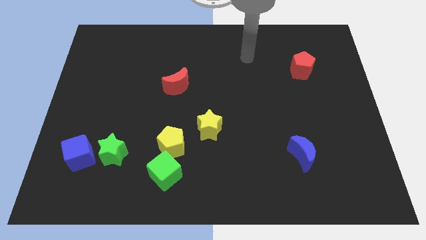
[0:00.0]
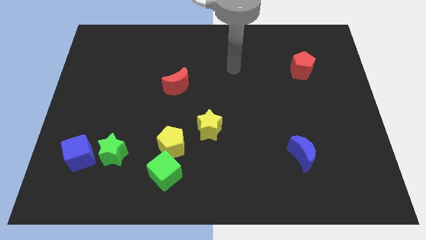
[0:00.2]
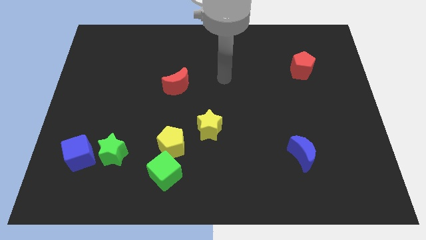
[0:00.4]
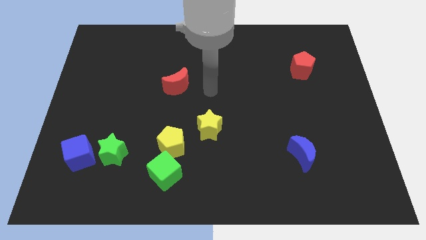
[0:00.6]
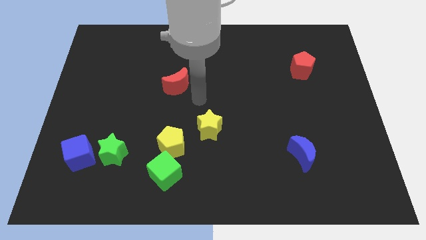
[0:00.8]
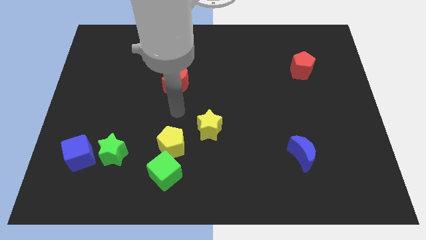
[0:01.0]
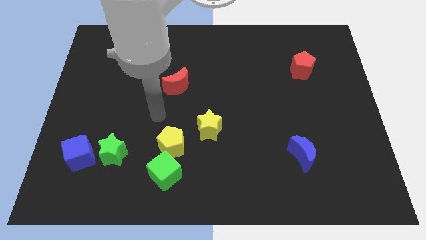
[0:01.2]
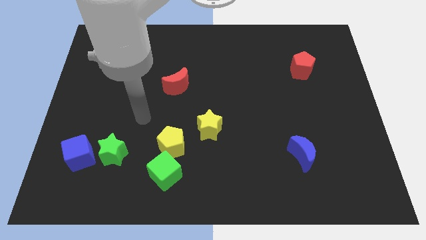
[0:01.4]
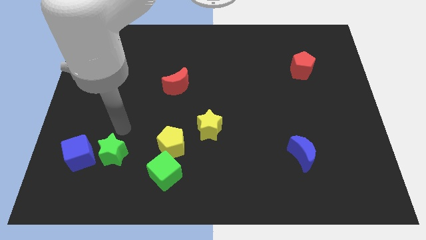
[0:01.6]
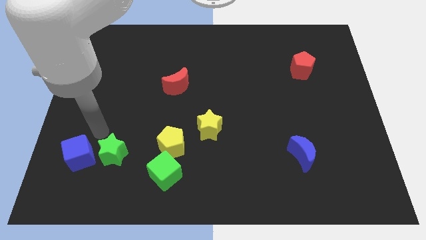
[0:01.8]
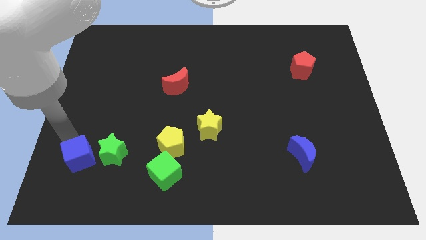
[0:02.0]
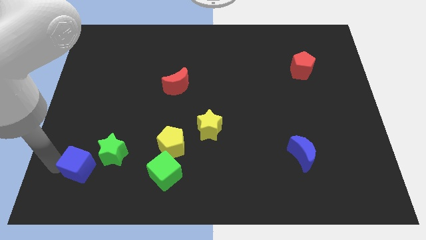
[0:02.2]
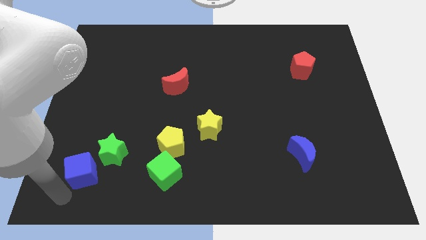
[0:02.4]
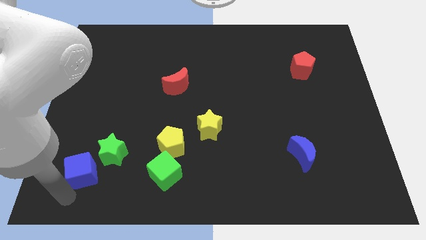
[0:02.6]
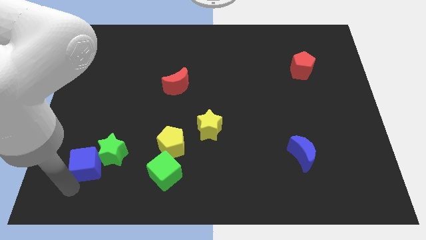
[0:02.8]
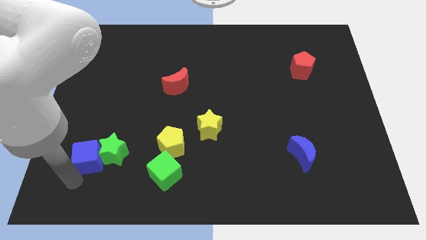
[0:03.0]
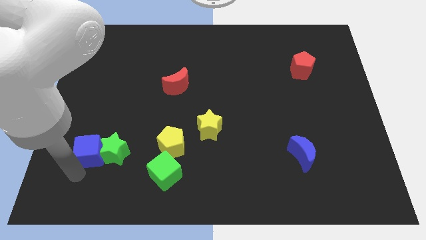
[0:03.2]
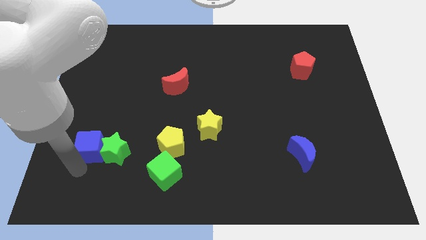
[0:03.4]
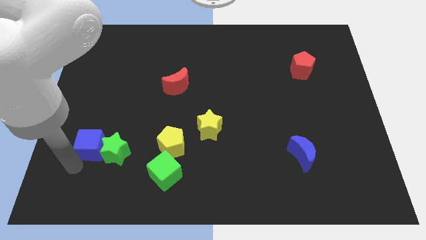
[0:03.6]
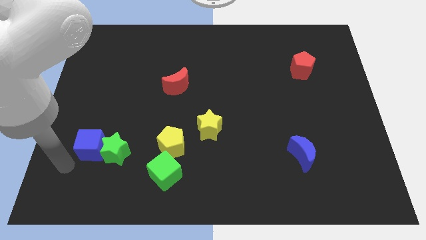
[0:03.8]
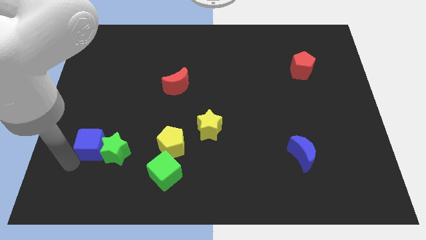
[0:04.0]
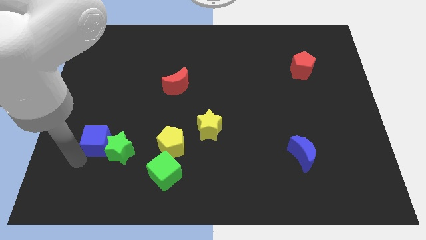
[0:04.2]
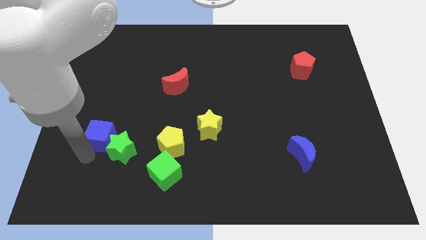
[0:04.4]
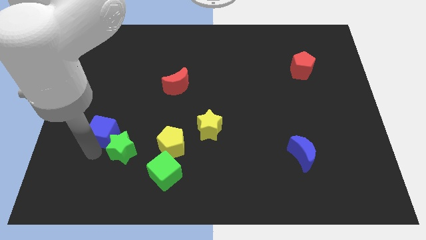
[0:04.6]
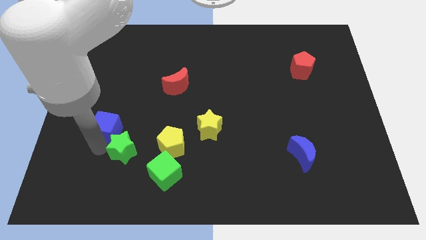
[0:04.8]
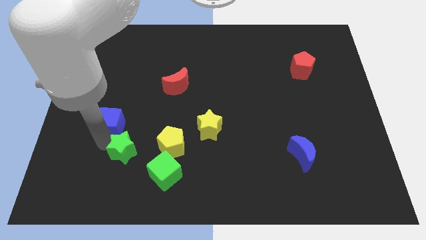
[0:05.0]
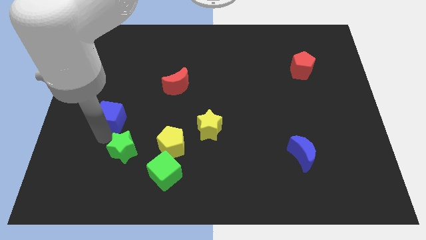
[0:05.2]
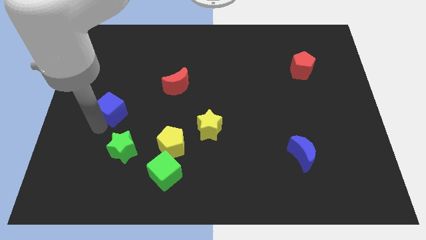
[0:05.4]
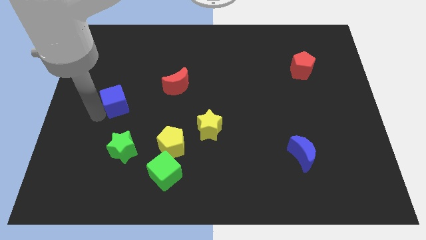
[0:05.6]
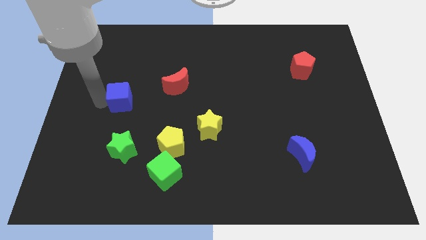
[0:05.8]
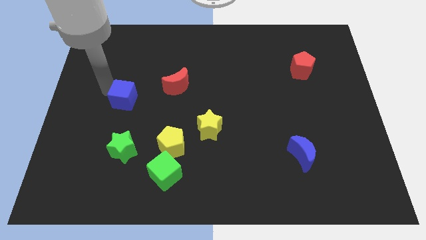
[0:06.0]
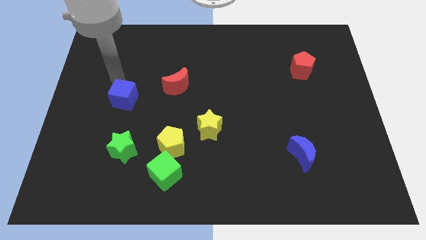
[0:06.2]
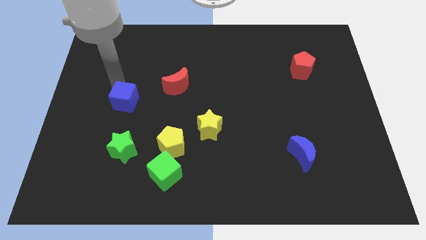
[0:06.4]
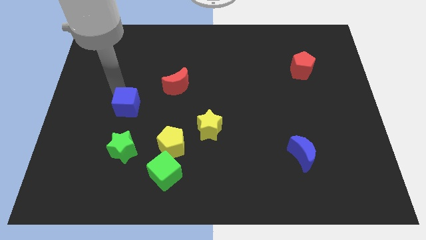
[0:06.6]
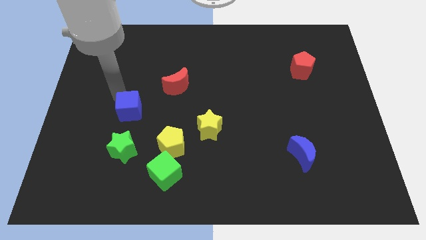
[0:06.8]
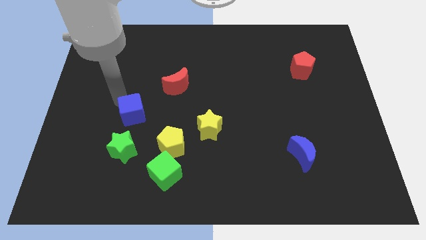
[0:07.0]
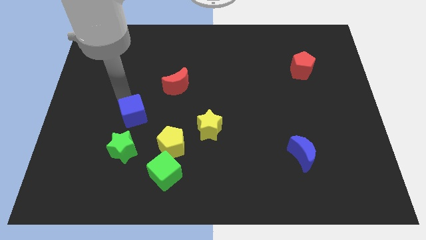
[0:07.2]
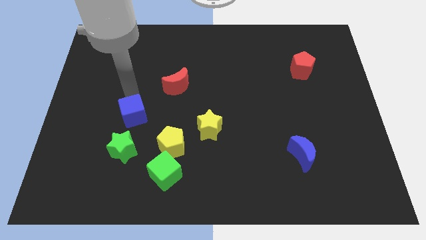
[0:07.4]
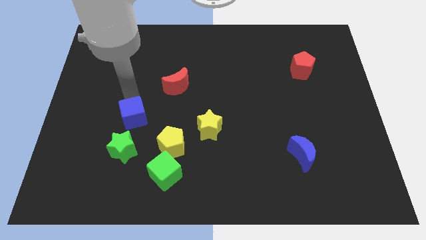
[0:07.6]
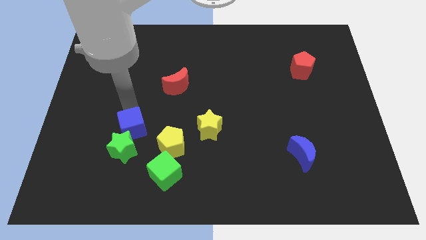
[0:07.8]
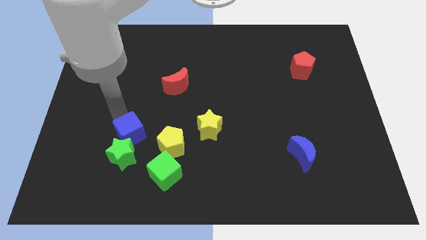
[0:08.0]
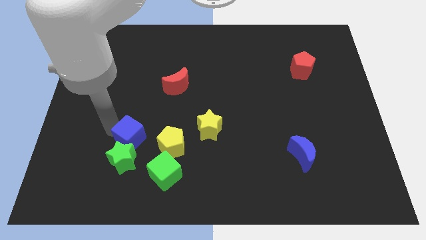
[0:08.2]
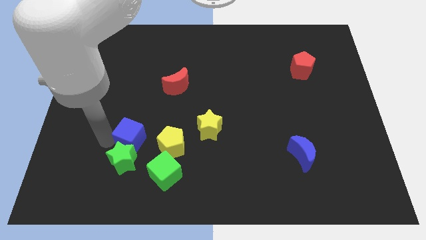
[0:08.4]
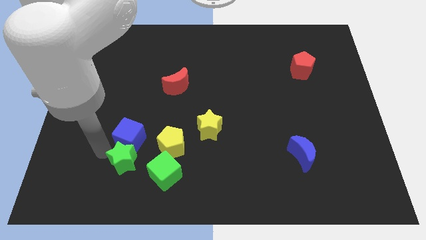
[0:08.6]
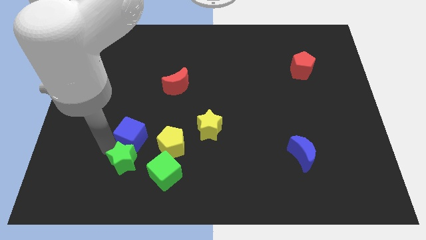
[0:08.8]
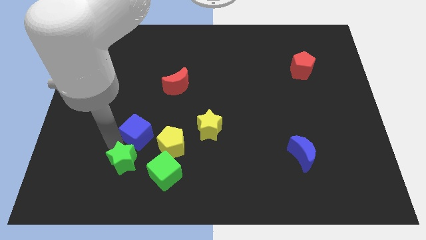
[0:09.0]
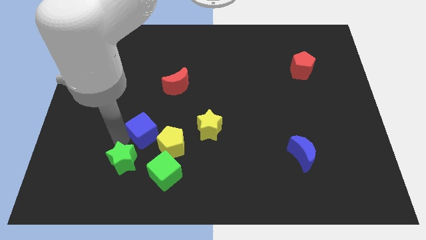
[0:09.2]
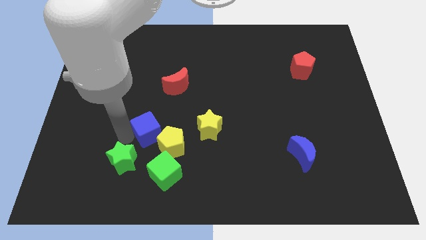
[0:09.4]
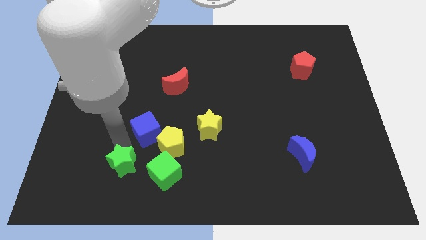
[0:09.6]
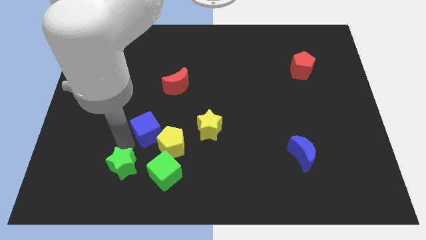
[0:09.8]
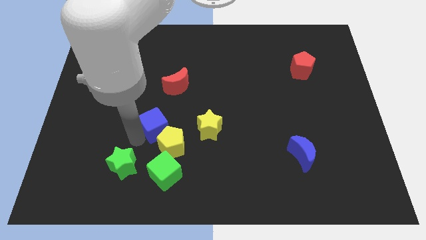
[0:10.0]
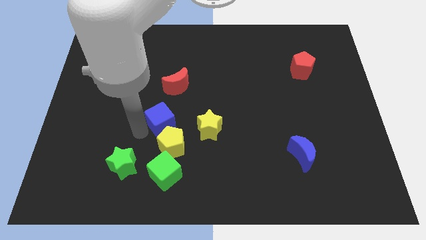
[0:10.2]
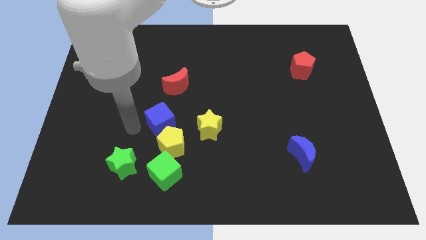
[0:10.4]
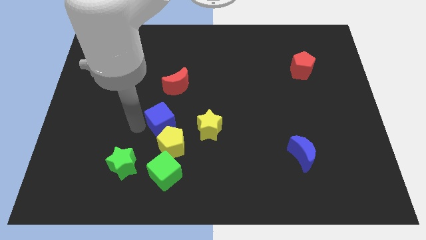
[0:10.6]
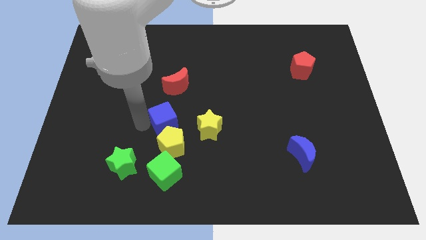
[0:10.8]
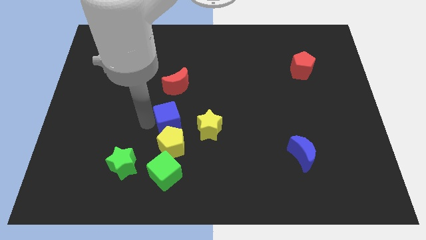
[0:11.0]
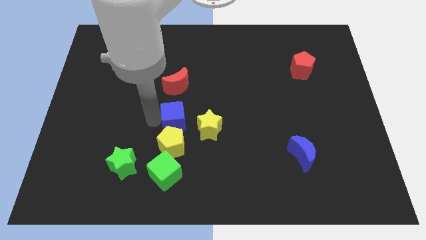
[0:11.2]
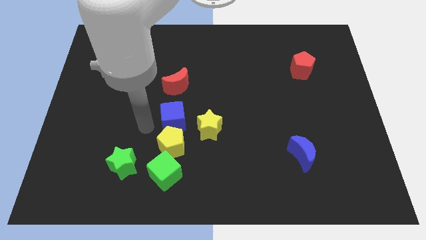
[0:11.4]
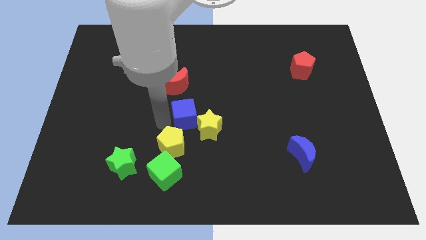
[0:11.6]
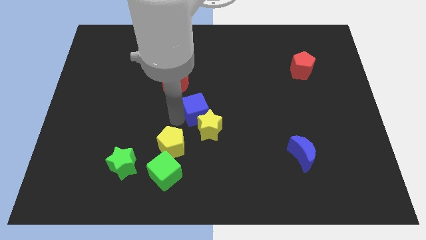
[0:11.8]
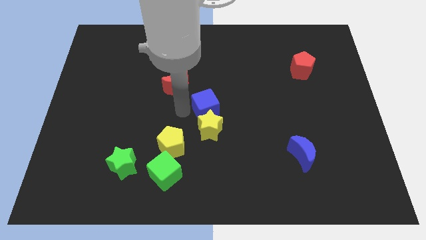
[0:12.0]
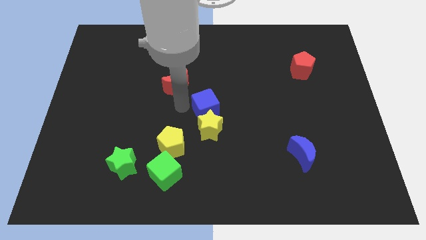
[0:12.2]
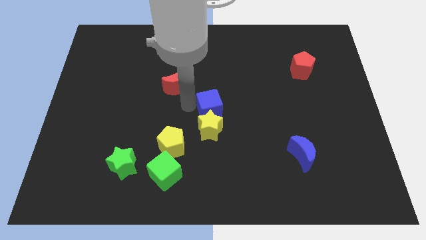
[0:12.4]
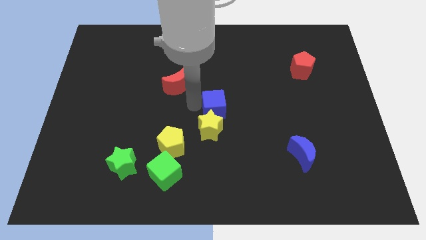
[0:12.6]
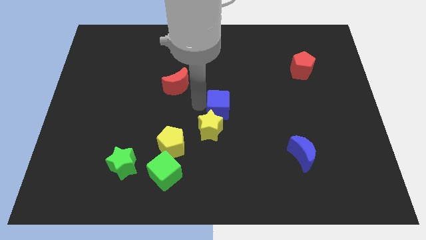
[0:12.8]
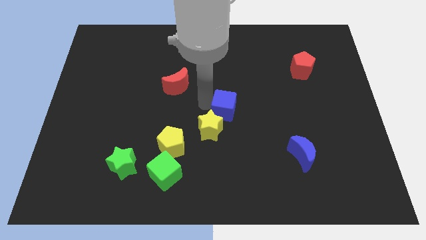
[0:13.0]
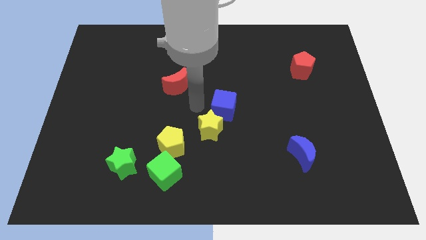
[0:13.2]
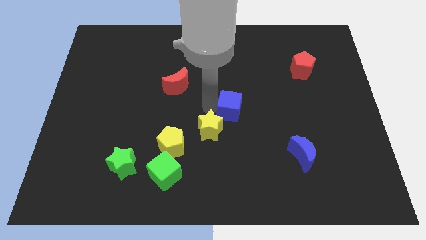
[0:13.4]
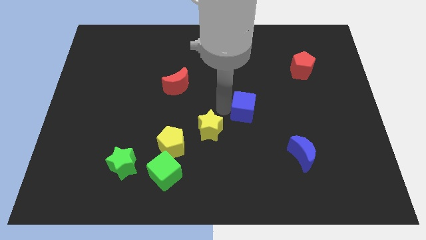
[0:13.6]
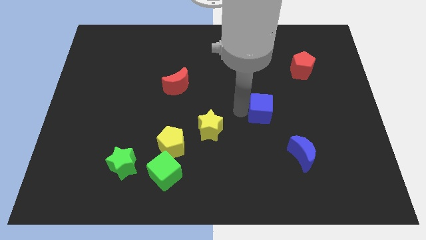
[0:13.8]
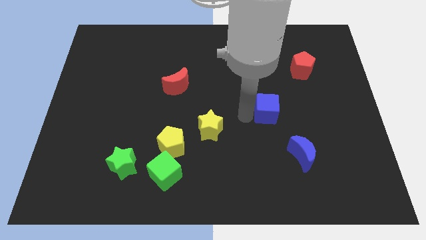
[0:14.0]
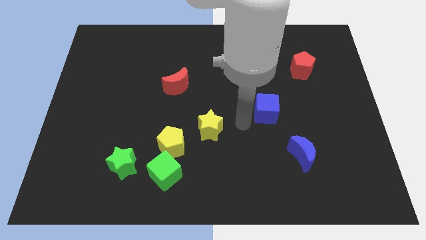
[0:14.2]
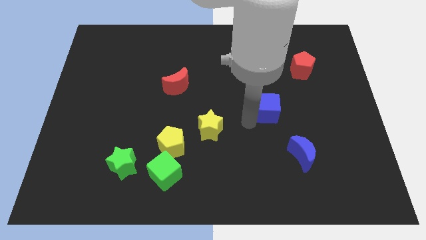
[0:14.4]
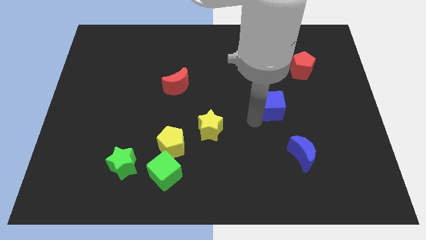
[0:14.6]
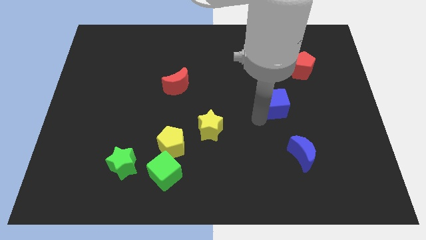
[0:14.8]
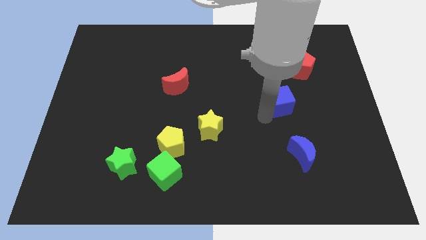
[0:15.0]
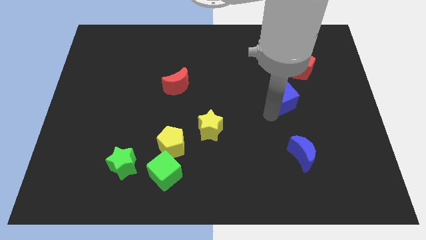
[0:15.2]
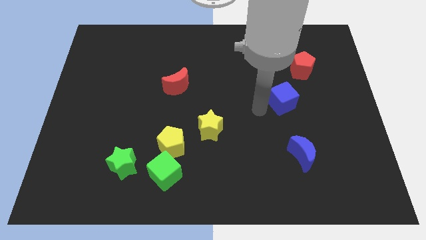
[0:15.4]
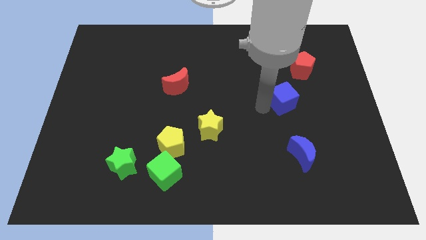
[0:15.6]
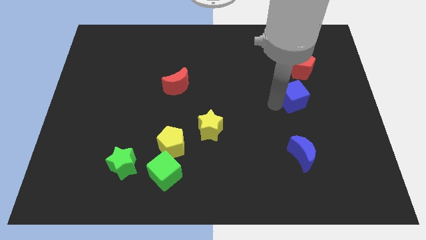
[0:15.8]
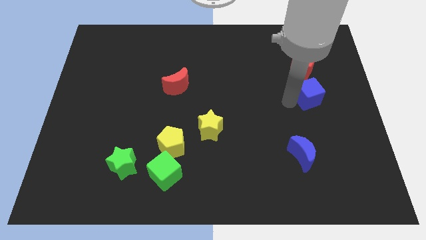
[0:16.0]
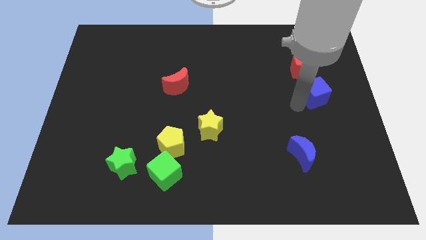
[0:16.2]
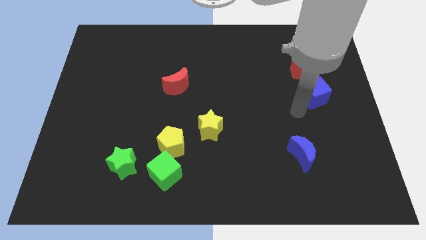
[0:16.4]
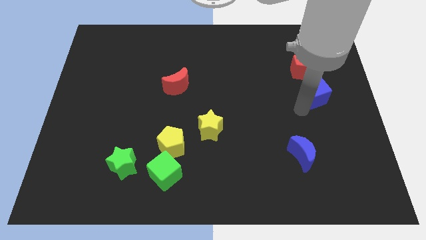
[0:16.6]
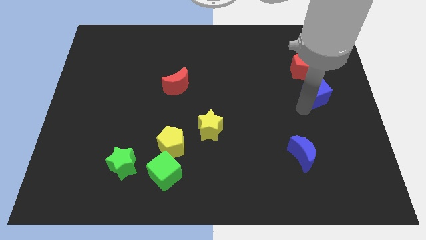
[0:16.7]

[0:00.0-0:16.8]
slide the blue cube diagonally down and to the right of the red pentagon
